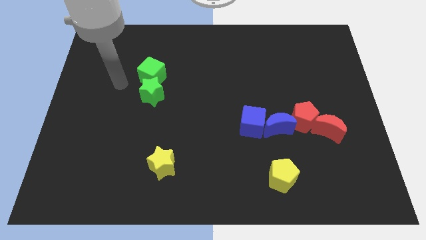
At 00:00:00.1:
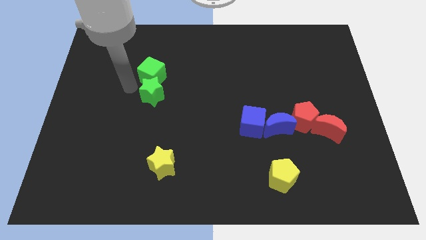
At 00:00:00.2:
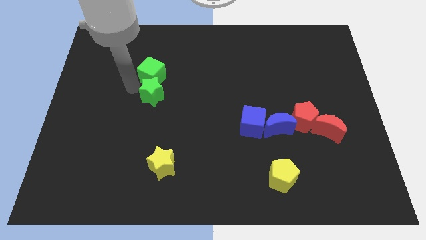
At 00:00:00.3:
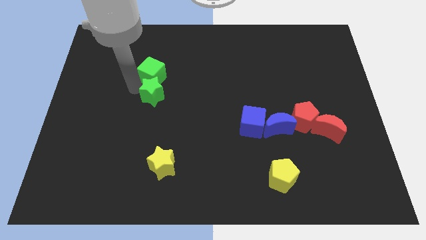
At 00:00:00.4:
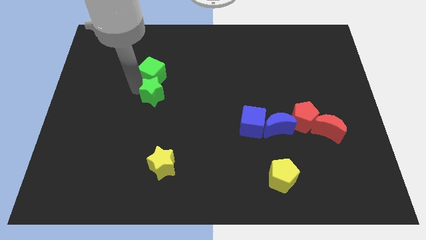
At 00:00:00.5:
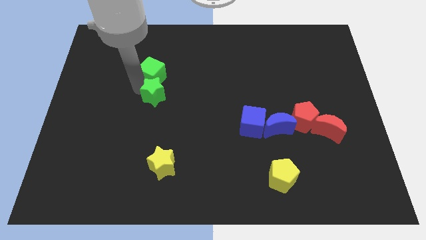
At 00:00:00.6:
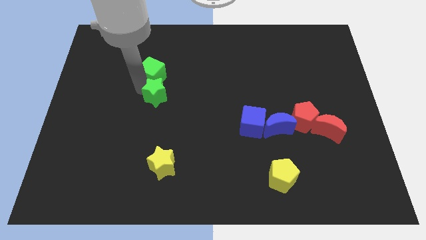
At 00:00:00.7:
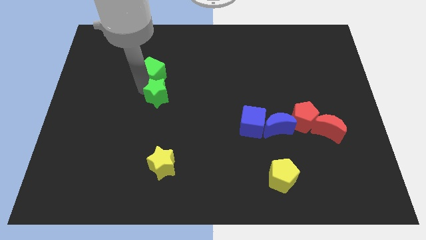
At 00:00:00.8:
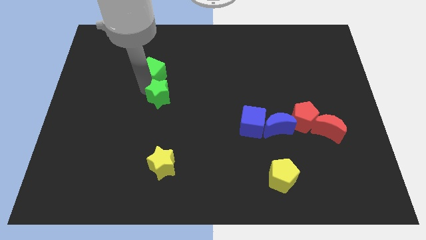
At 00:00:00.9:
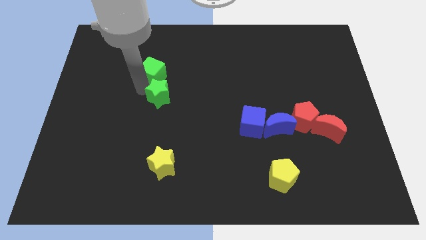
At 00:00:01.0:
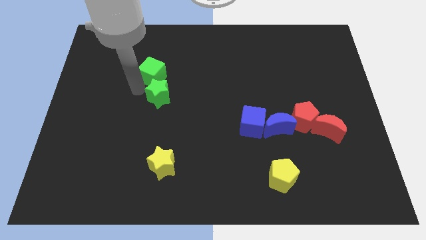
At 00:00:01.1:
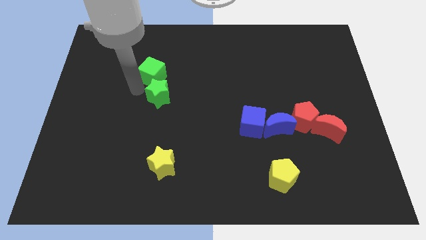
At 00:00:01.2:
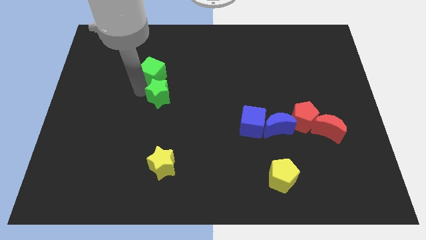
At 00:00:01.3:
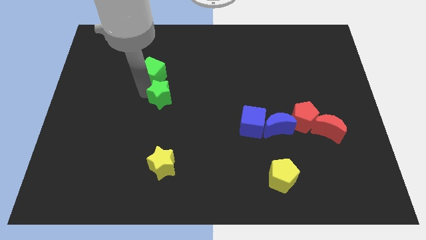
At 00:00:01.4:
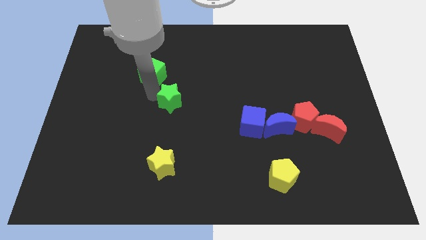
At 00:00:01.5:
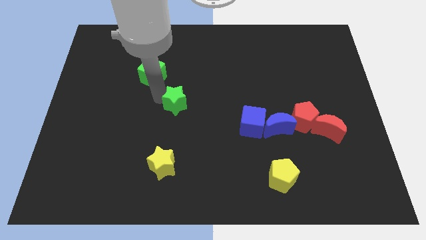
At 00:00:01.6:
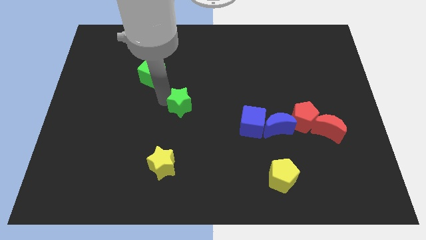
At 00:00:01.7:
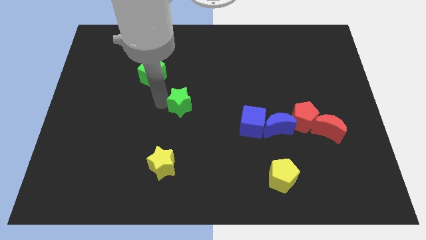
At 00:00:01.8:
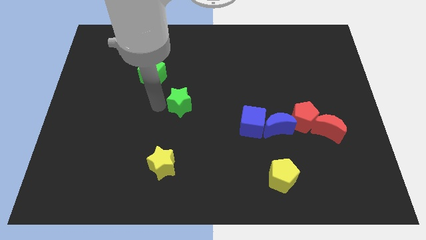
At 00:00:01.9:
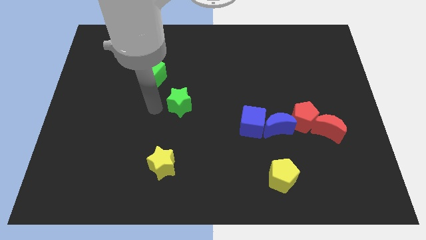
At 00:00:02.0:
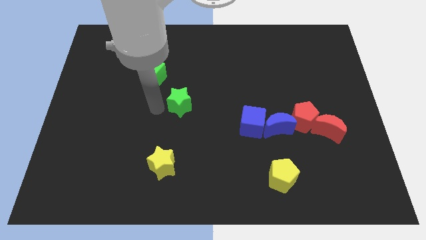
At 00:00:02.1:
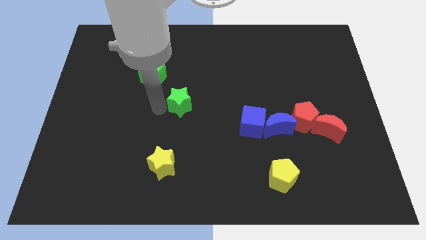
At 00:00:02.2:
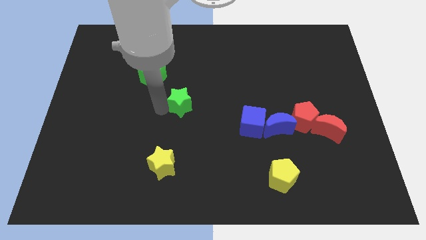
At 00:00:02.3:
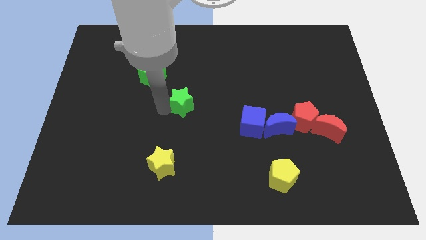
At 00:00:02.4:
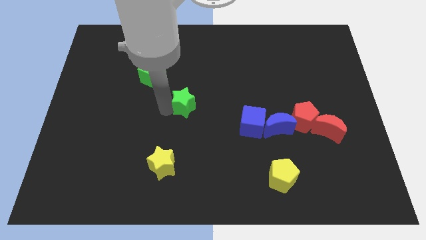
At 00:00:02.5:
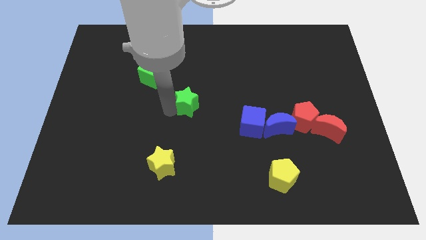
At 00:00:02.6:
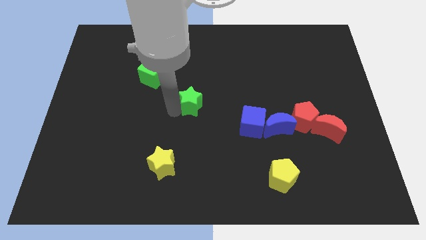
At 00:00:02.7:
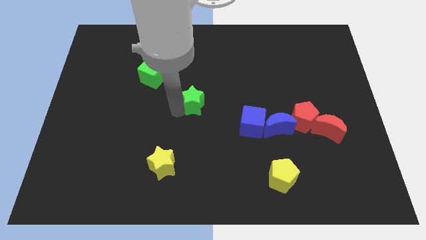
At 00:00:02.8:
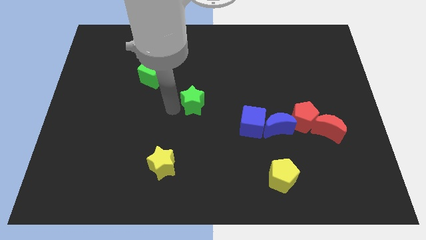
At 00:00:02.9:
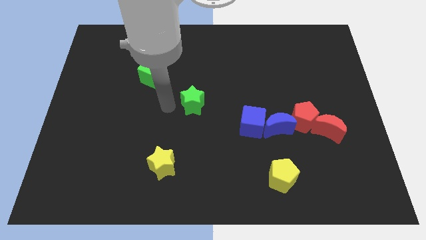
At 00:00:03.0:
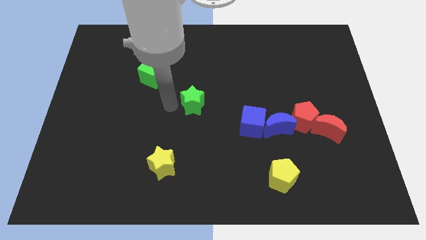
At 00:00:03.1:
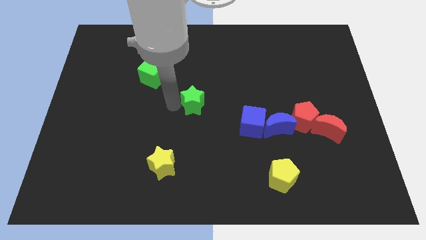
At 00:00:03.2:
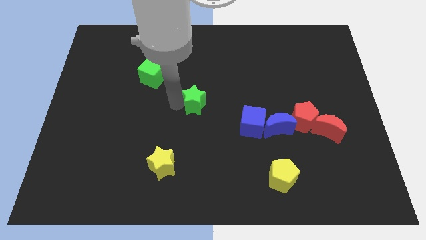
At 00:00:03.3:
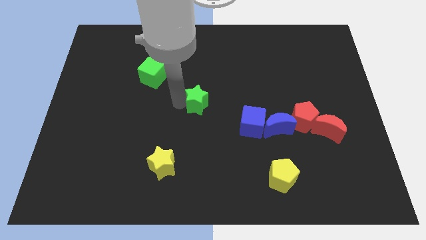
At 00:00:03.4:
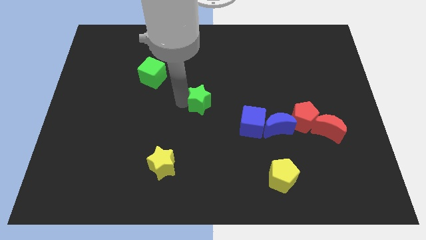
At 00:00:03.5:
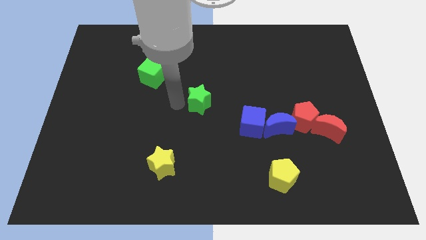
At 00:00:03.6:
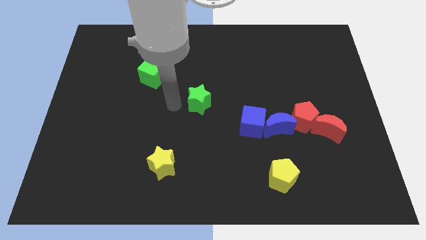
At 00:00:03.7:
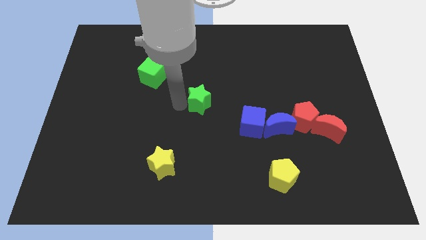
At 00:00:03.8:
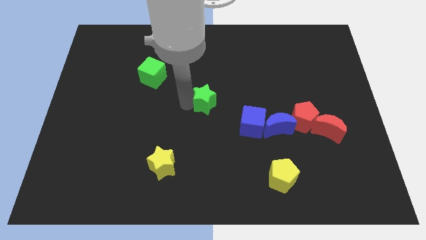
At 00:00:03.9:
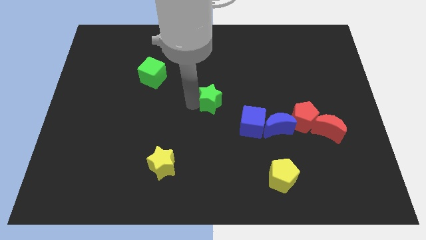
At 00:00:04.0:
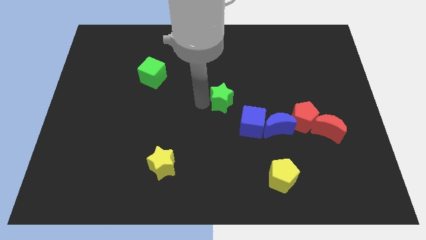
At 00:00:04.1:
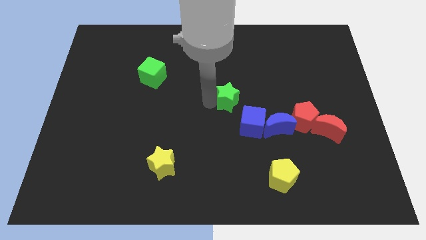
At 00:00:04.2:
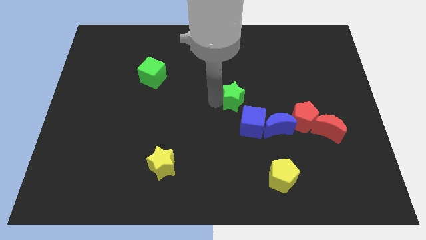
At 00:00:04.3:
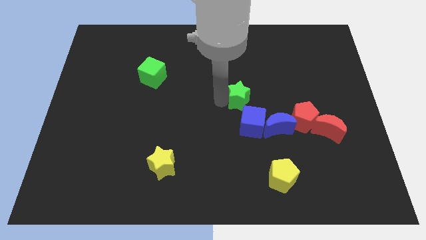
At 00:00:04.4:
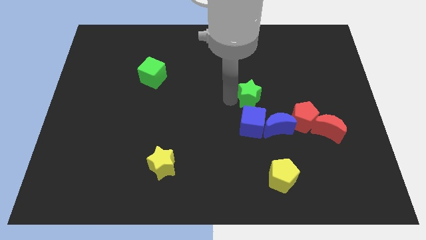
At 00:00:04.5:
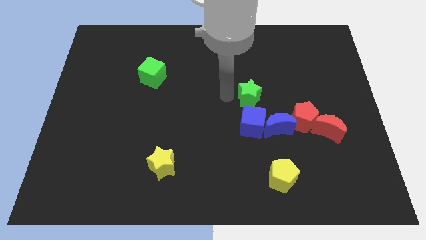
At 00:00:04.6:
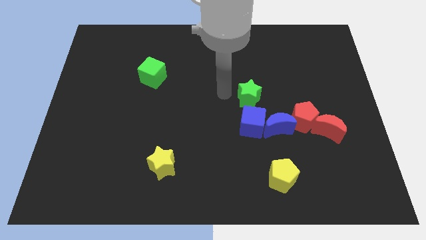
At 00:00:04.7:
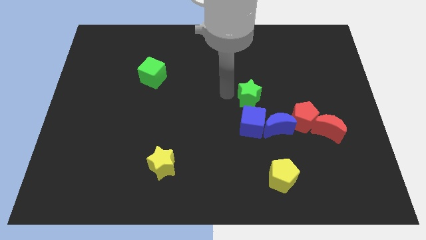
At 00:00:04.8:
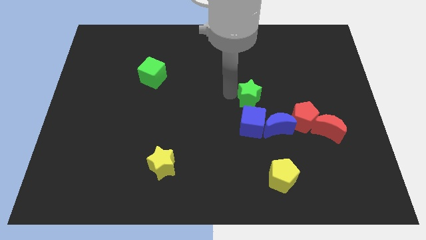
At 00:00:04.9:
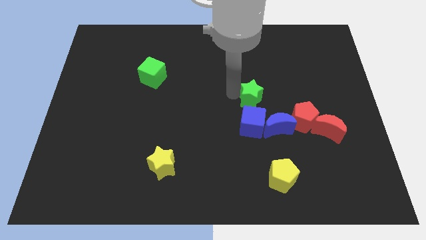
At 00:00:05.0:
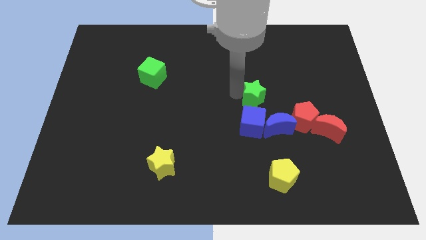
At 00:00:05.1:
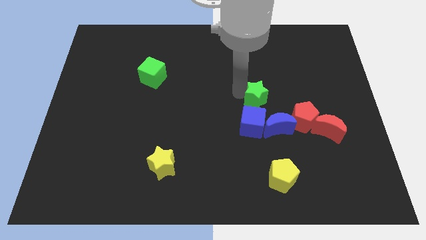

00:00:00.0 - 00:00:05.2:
put the green star to the top left of the red pentagon

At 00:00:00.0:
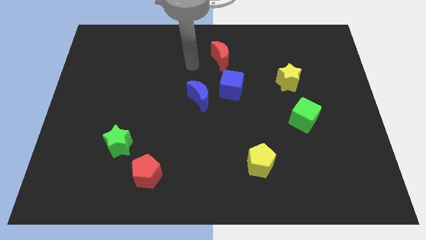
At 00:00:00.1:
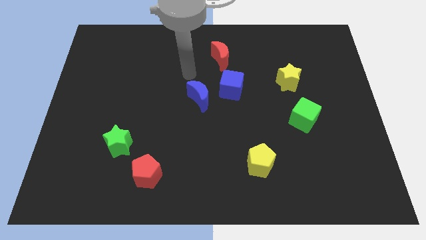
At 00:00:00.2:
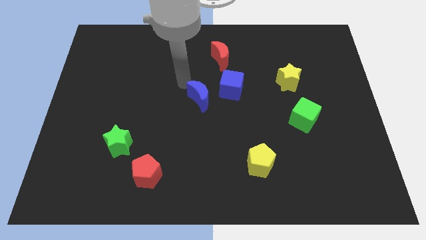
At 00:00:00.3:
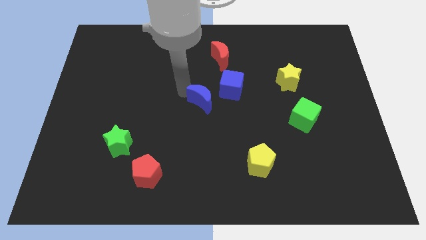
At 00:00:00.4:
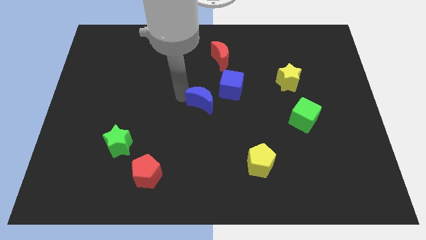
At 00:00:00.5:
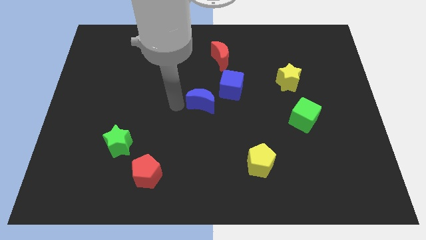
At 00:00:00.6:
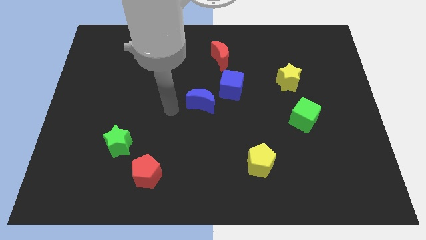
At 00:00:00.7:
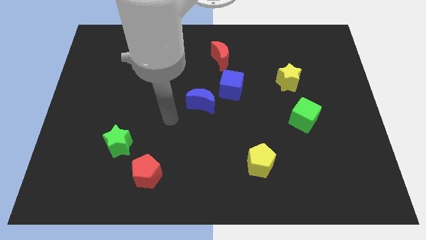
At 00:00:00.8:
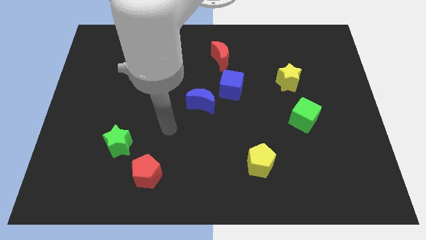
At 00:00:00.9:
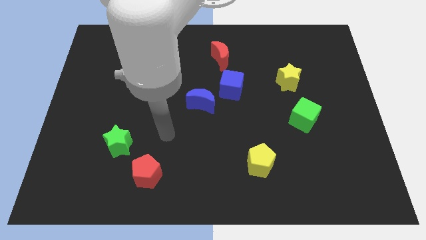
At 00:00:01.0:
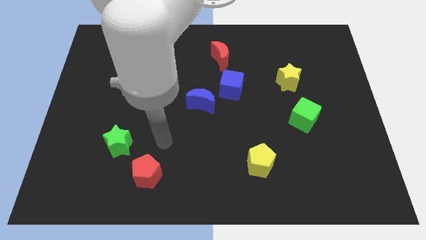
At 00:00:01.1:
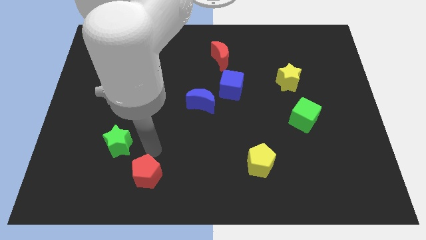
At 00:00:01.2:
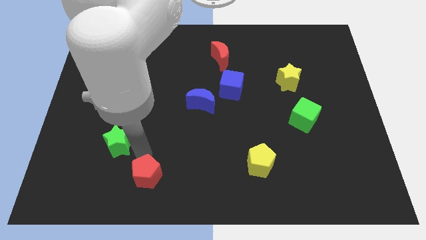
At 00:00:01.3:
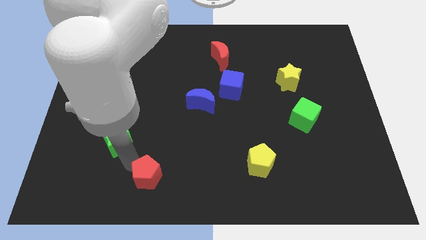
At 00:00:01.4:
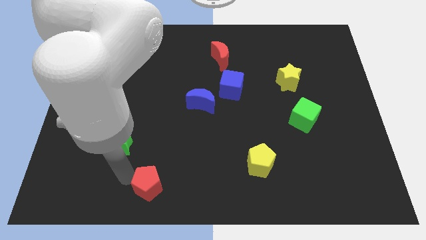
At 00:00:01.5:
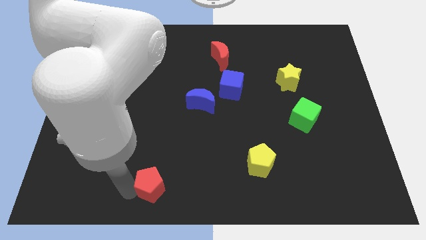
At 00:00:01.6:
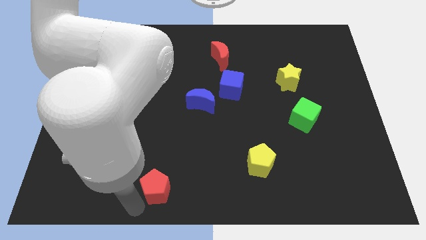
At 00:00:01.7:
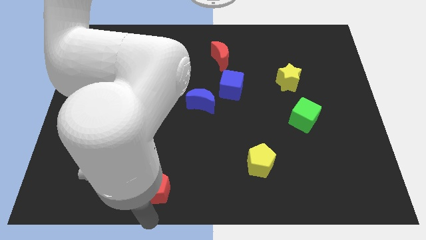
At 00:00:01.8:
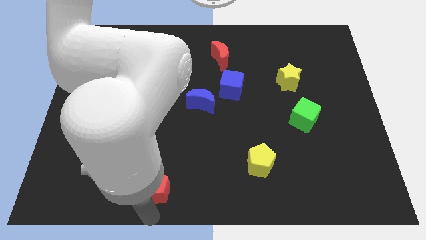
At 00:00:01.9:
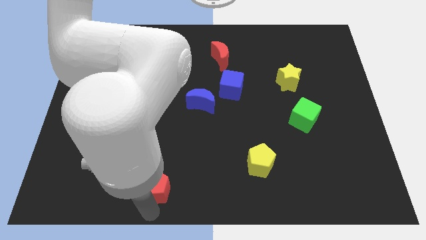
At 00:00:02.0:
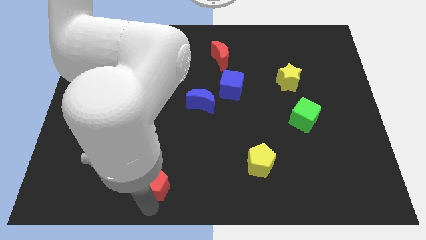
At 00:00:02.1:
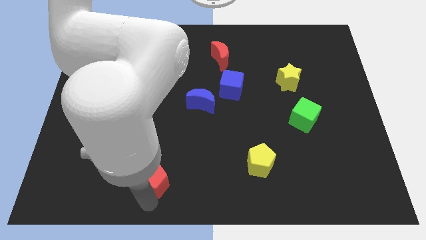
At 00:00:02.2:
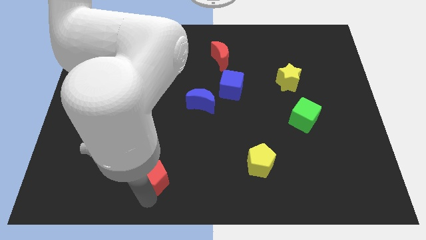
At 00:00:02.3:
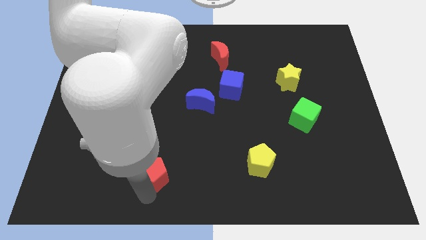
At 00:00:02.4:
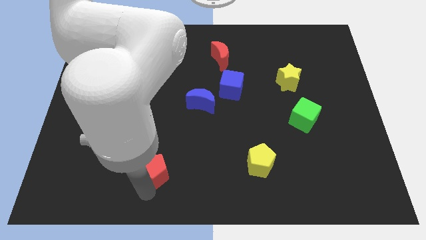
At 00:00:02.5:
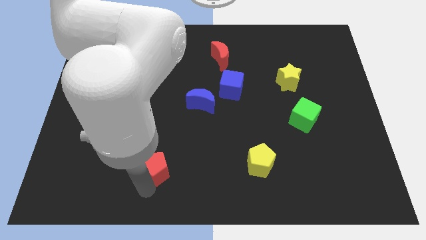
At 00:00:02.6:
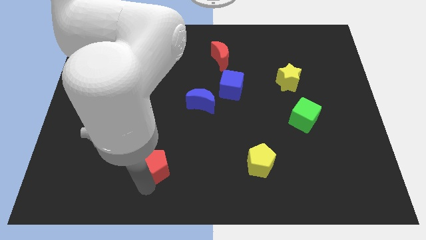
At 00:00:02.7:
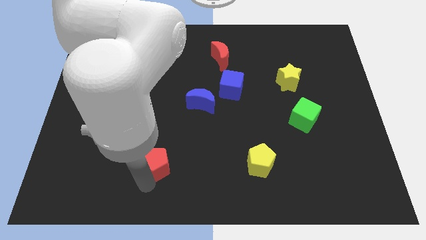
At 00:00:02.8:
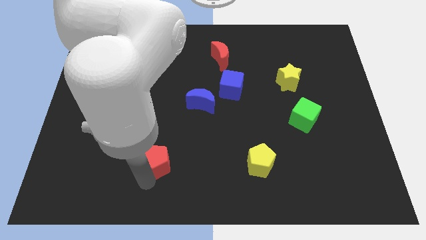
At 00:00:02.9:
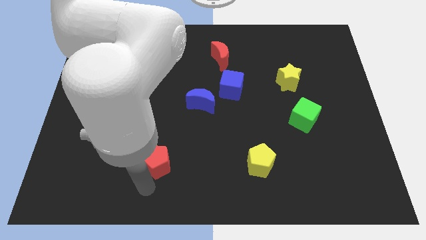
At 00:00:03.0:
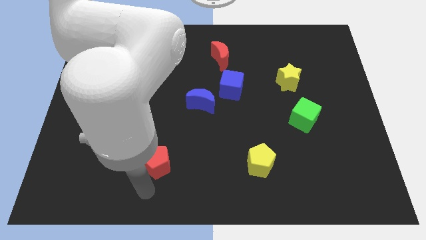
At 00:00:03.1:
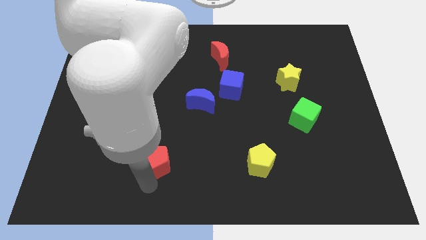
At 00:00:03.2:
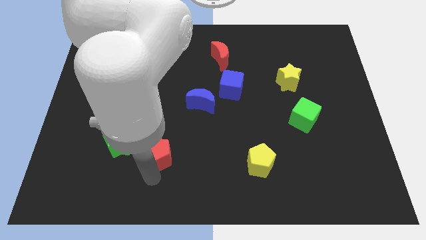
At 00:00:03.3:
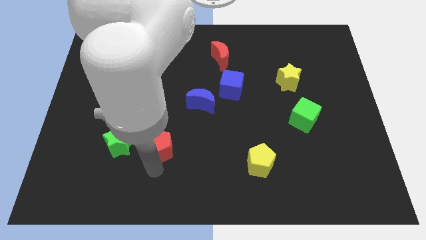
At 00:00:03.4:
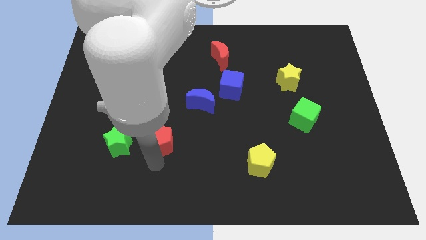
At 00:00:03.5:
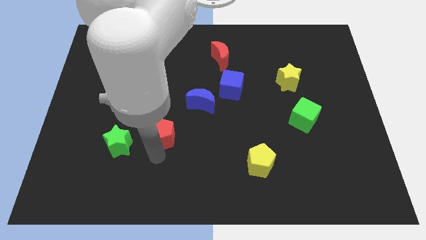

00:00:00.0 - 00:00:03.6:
put the red pentagon to the bottom left side of the blue moon
